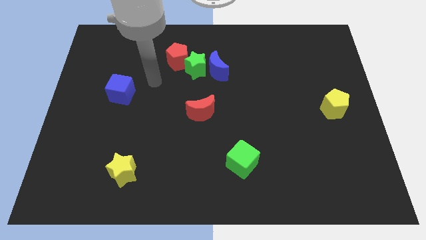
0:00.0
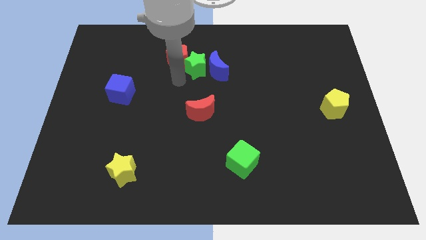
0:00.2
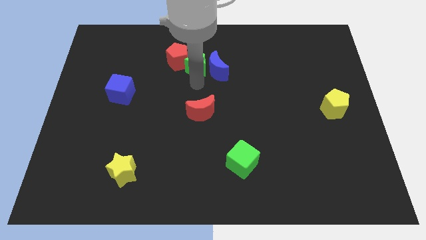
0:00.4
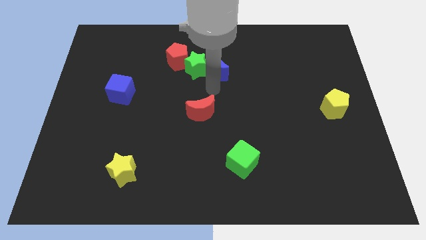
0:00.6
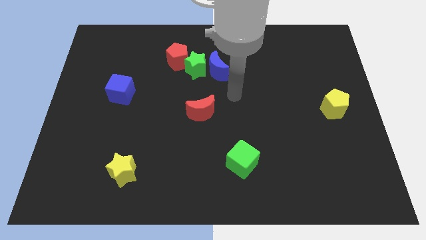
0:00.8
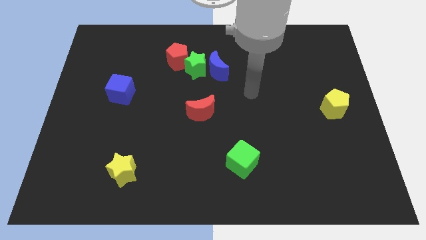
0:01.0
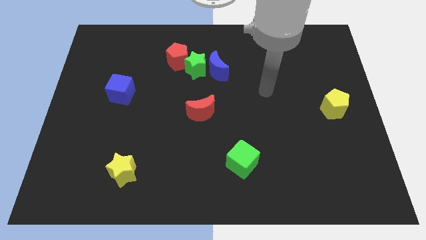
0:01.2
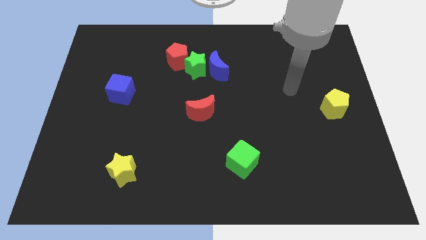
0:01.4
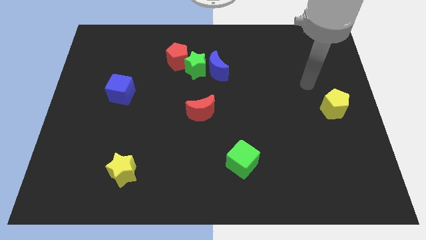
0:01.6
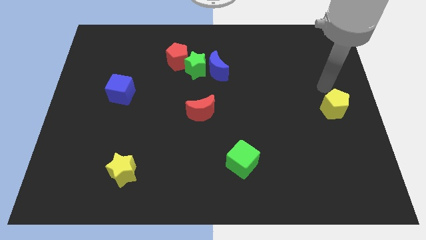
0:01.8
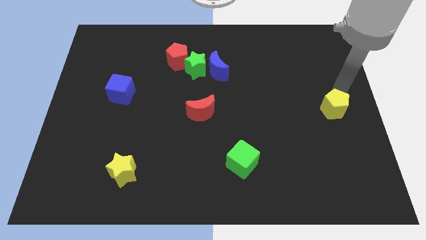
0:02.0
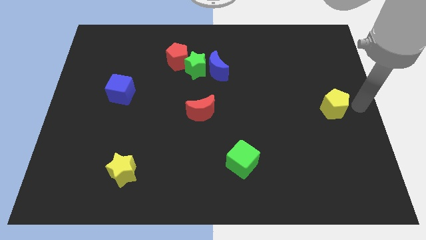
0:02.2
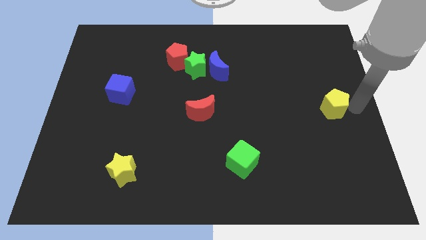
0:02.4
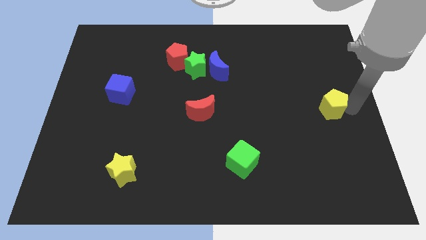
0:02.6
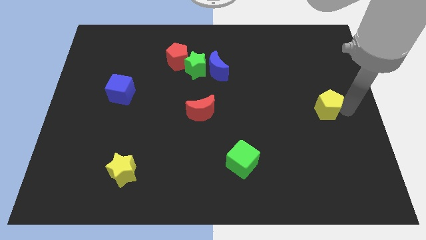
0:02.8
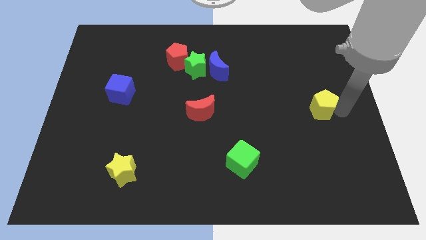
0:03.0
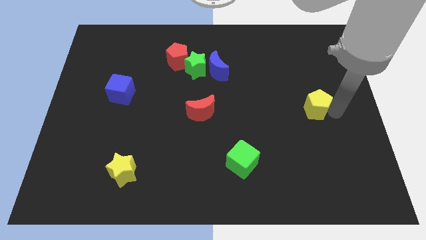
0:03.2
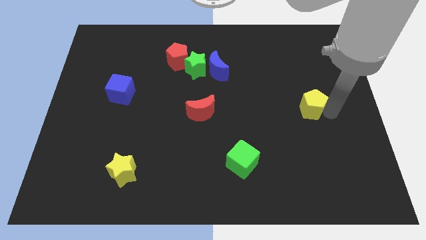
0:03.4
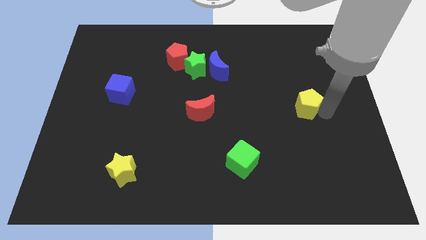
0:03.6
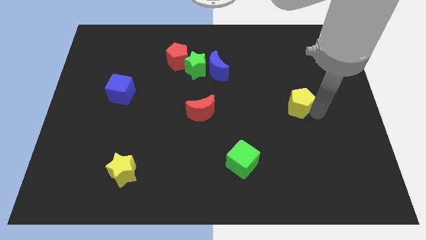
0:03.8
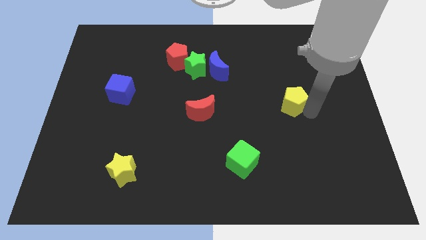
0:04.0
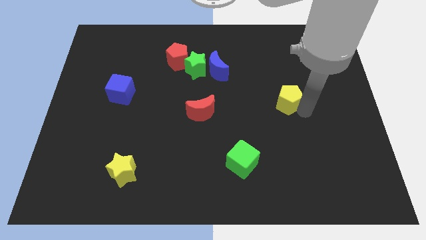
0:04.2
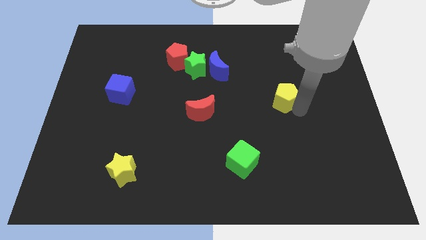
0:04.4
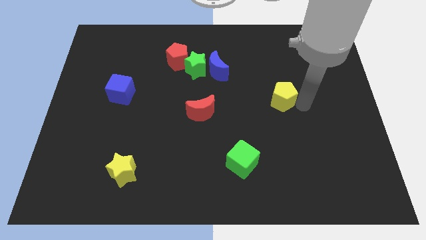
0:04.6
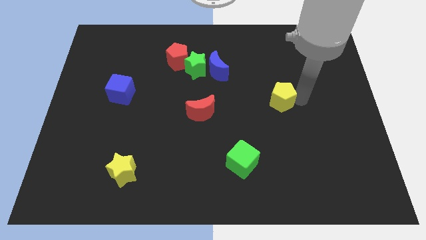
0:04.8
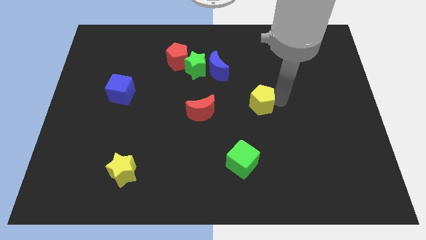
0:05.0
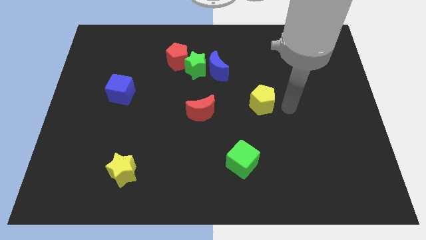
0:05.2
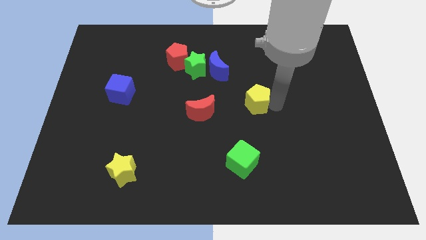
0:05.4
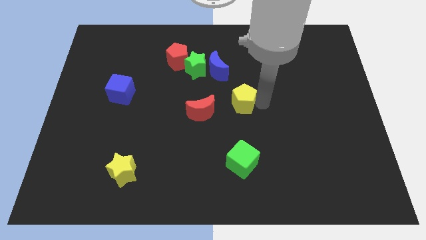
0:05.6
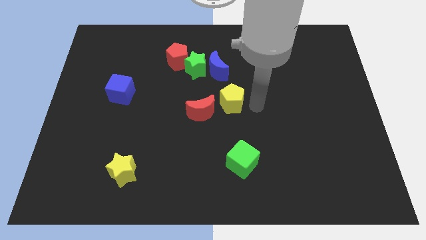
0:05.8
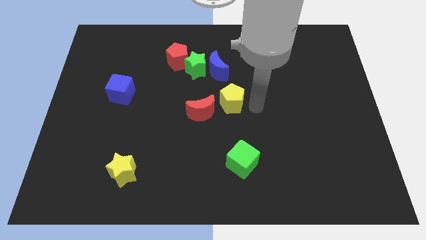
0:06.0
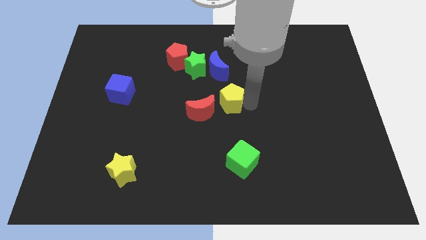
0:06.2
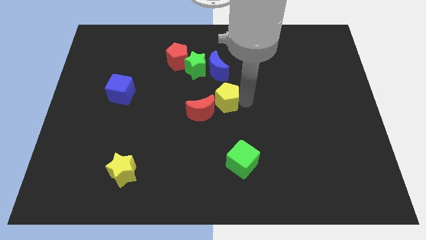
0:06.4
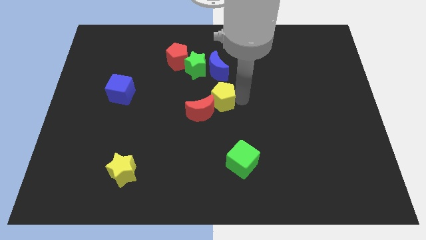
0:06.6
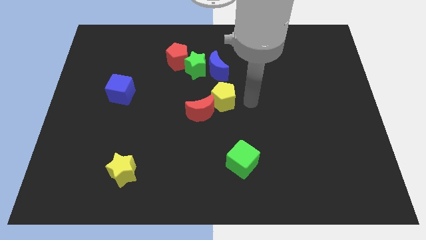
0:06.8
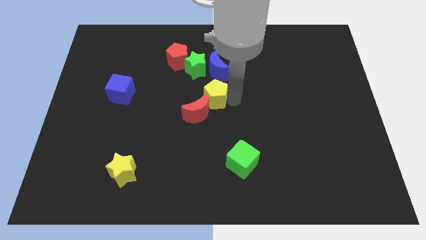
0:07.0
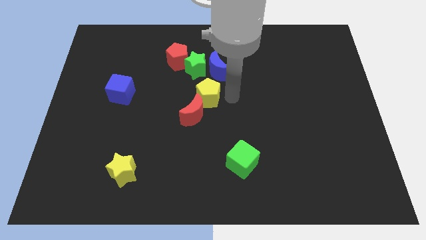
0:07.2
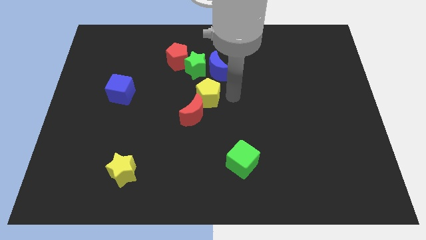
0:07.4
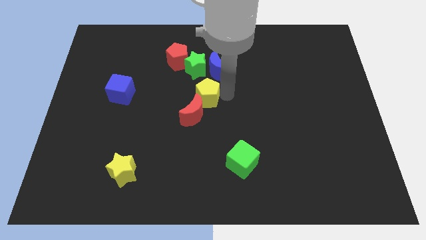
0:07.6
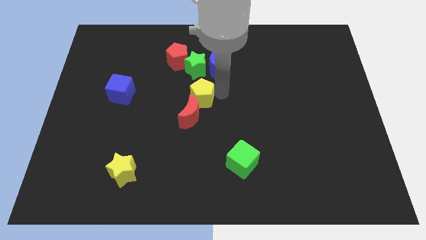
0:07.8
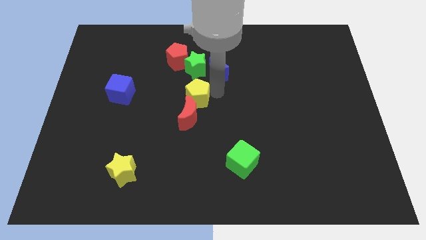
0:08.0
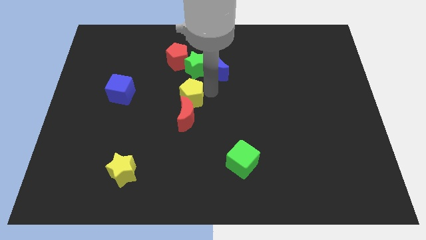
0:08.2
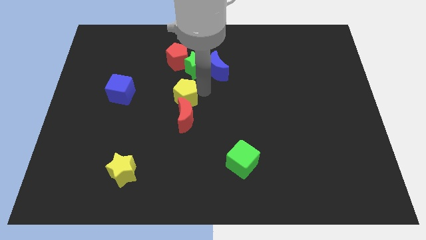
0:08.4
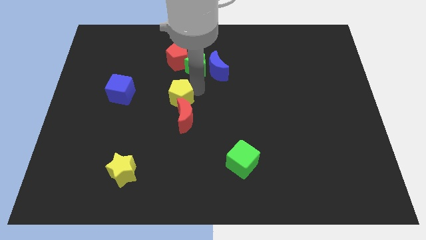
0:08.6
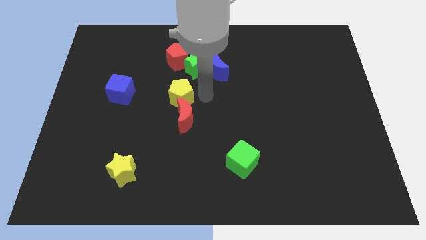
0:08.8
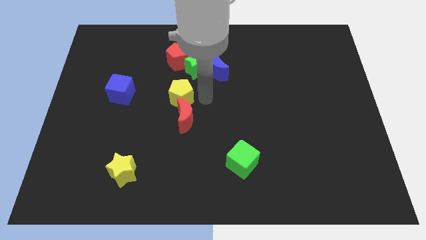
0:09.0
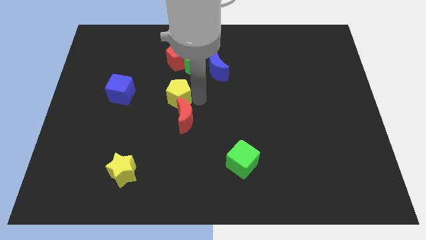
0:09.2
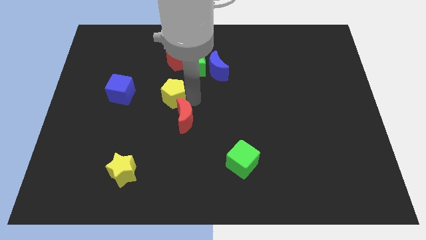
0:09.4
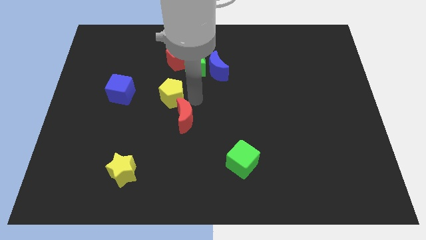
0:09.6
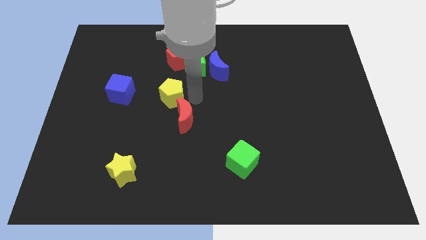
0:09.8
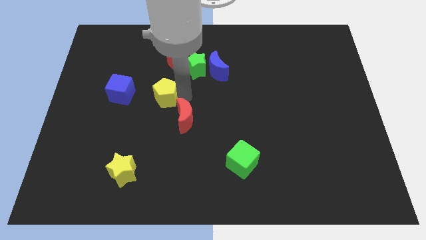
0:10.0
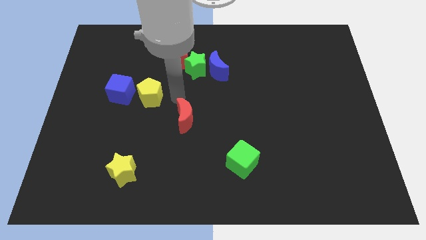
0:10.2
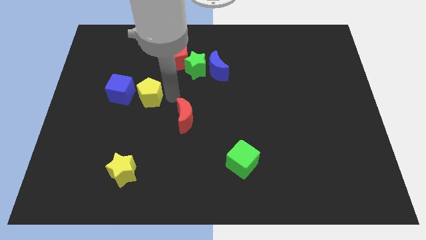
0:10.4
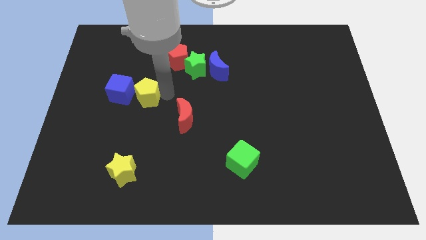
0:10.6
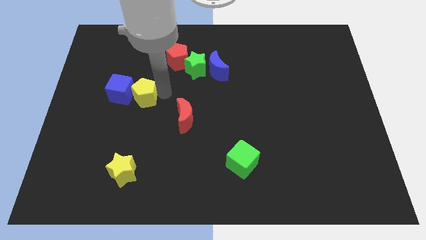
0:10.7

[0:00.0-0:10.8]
put the yellow pentagon towards the blue cube

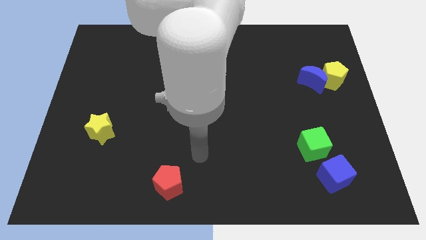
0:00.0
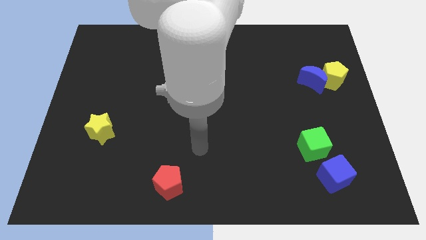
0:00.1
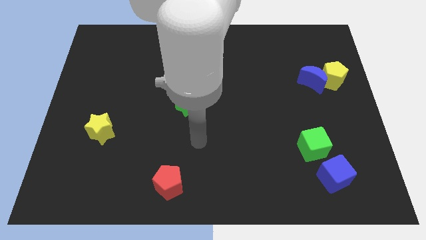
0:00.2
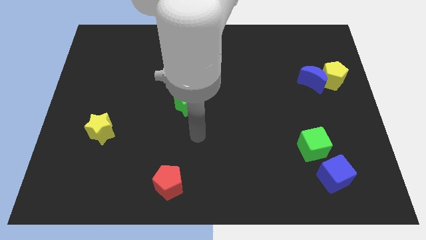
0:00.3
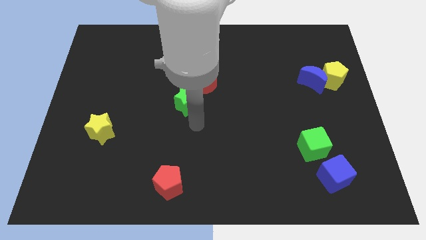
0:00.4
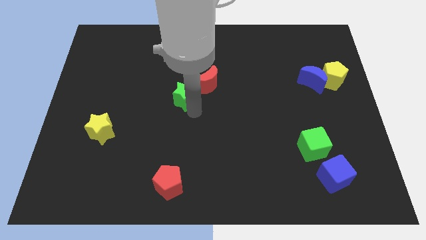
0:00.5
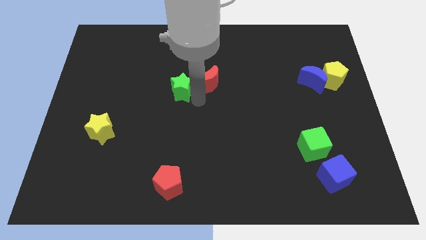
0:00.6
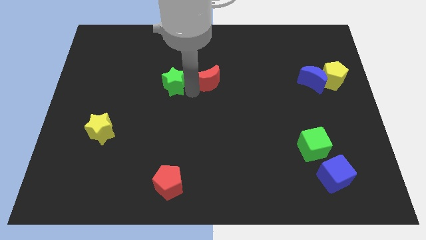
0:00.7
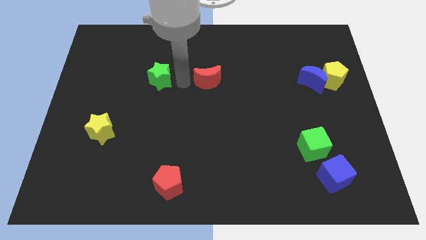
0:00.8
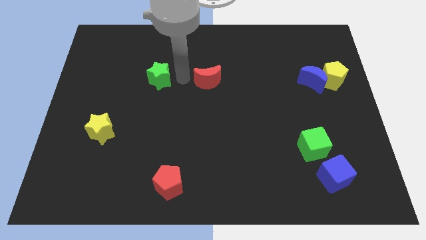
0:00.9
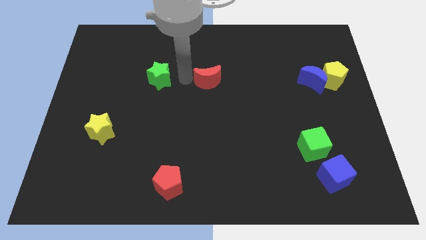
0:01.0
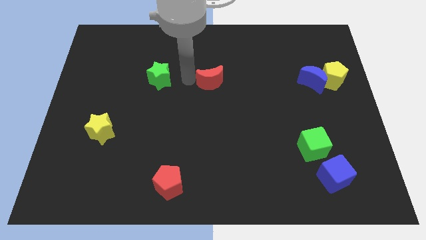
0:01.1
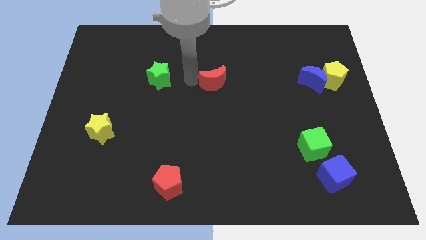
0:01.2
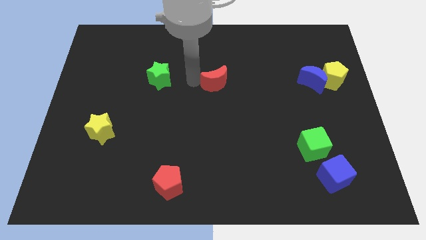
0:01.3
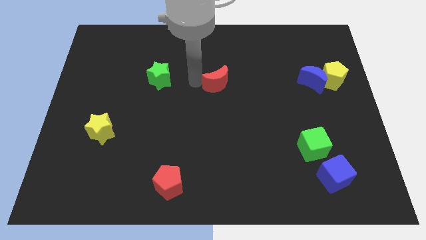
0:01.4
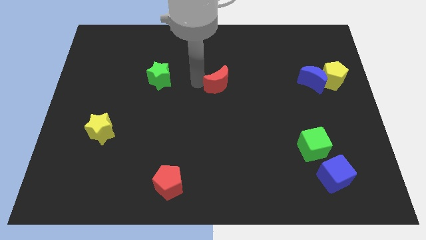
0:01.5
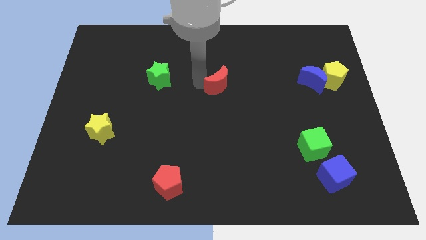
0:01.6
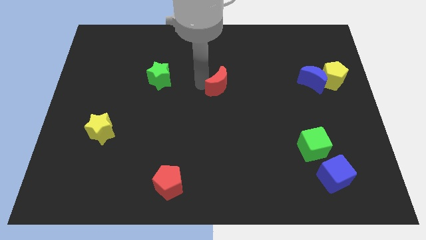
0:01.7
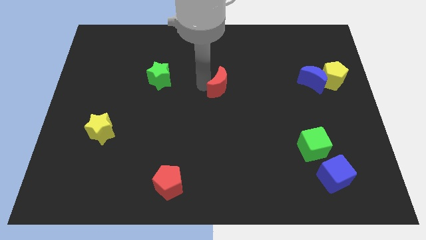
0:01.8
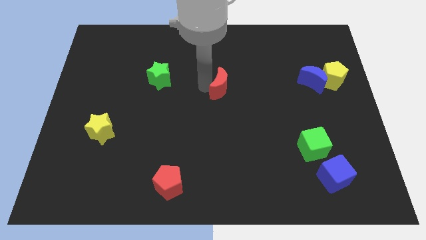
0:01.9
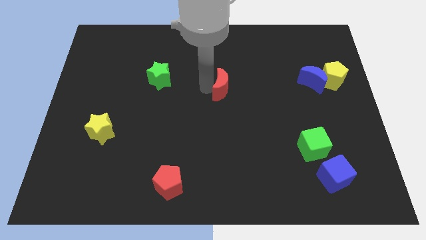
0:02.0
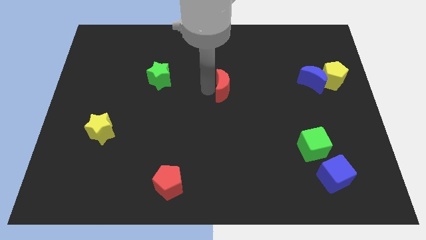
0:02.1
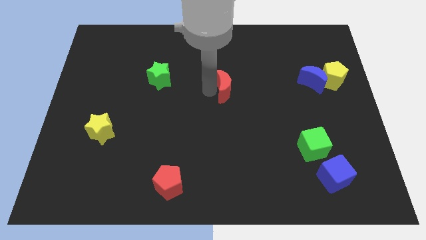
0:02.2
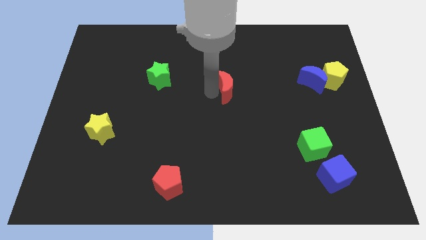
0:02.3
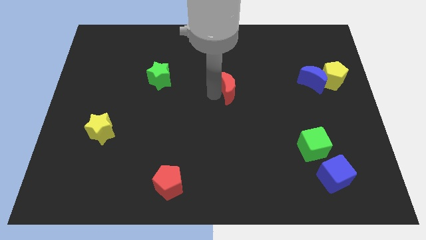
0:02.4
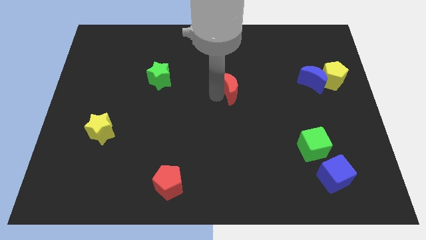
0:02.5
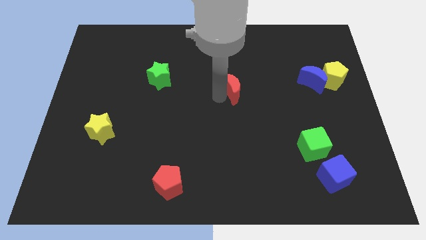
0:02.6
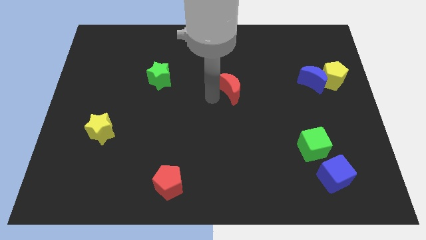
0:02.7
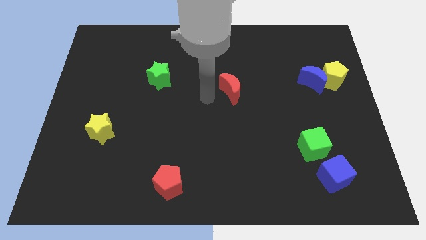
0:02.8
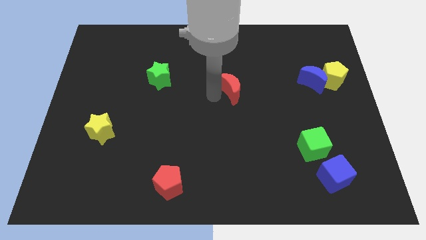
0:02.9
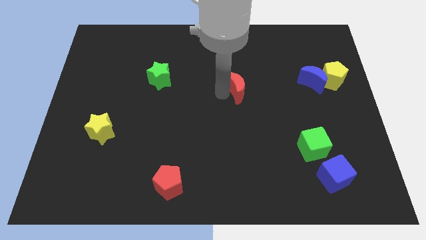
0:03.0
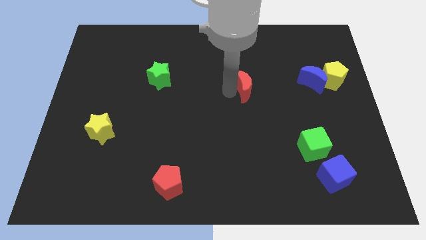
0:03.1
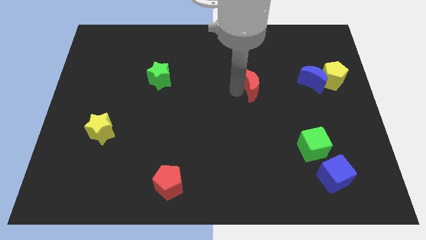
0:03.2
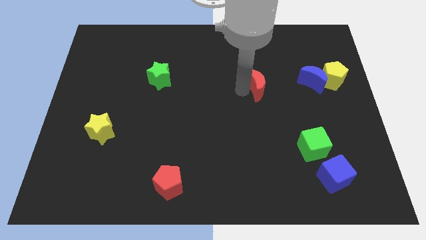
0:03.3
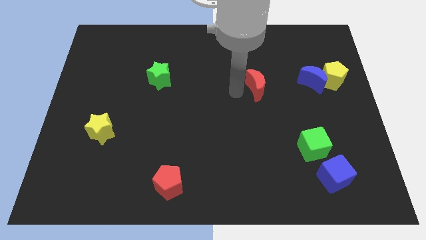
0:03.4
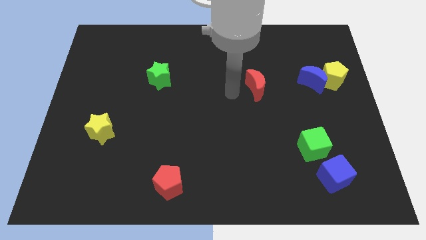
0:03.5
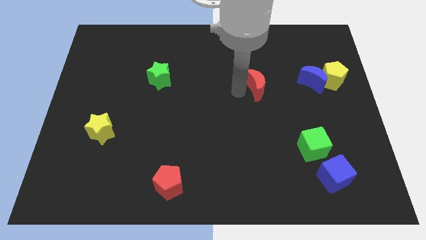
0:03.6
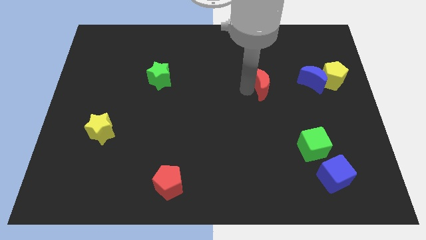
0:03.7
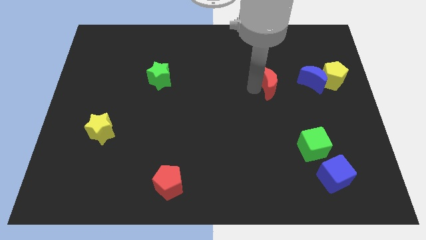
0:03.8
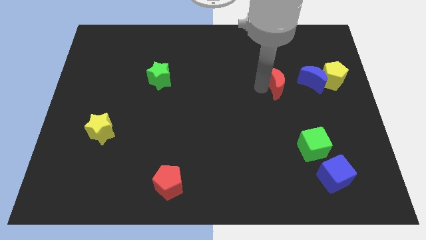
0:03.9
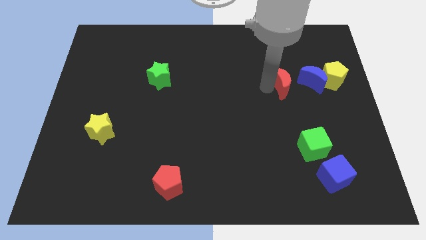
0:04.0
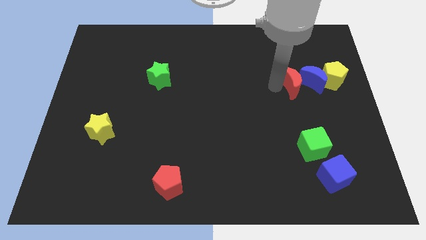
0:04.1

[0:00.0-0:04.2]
push the red moon close to the blue moon
